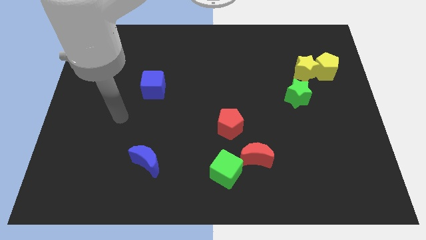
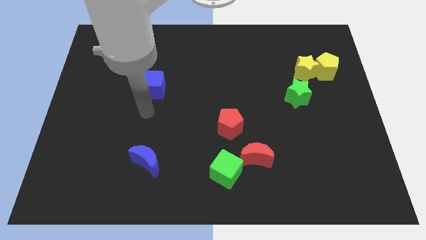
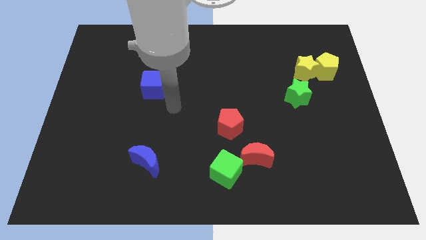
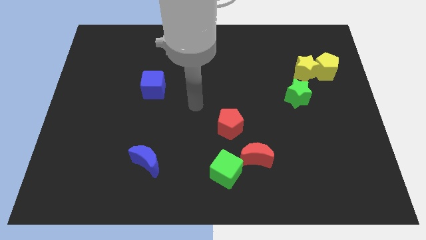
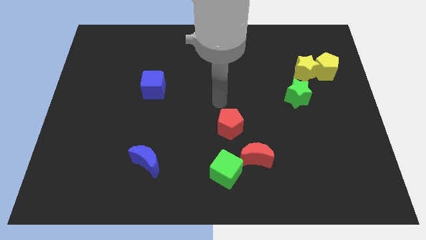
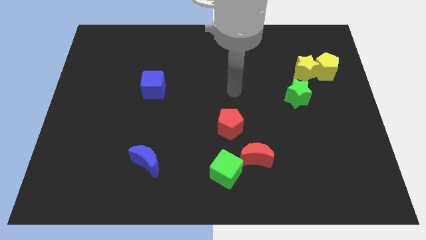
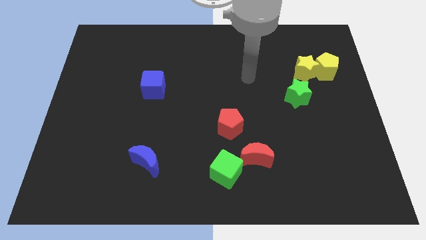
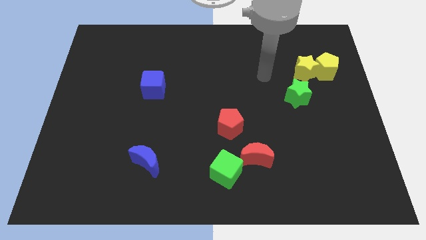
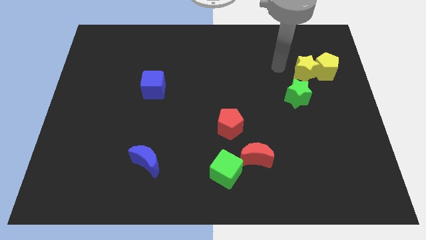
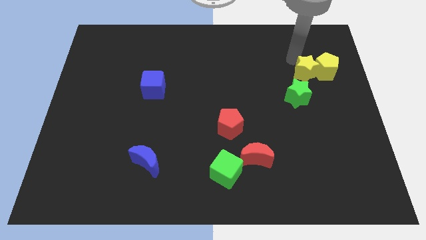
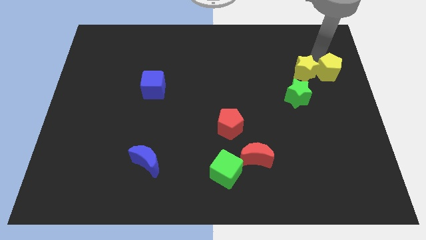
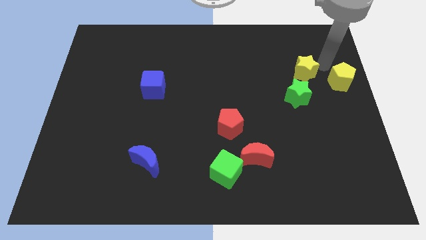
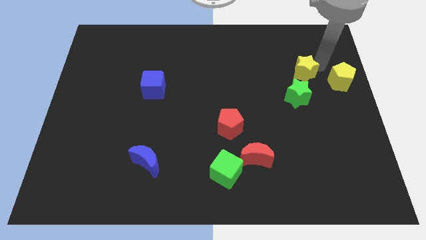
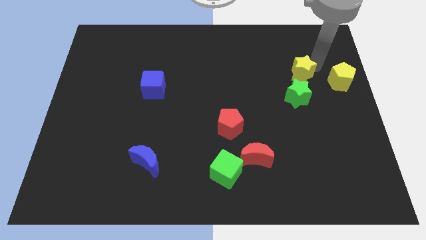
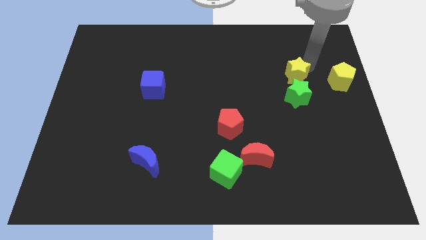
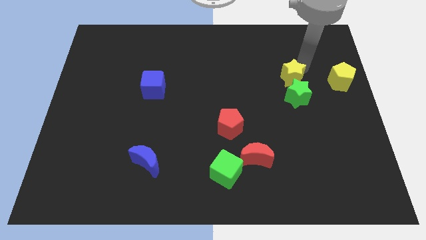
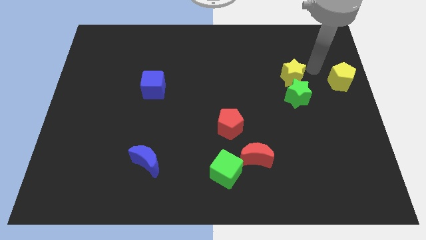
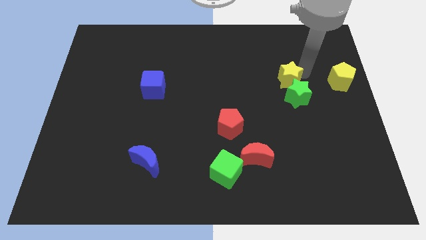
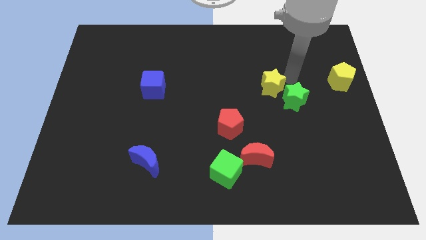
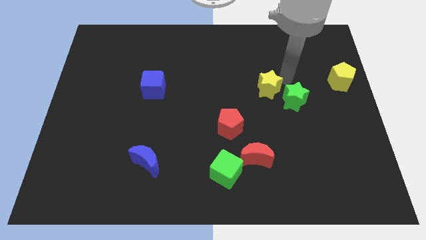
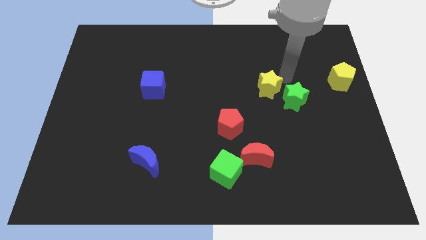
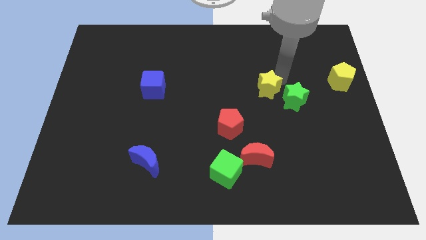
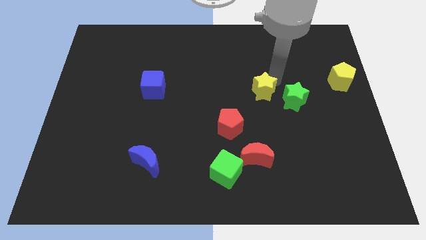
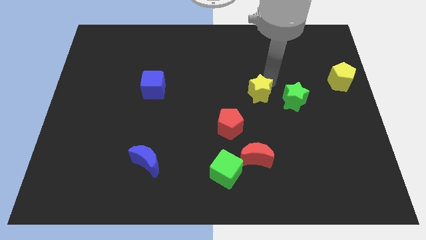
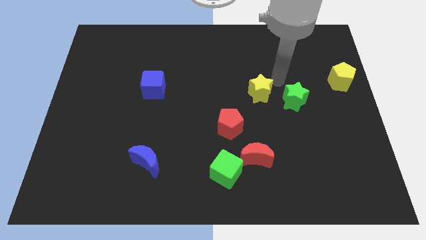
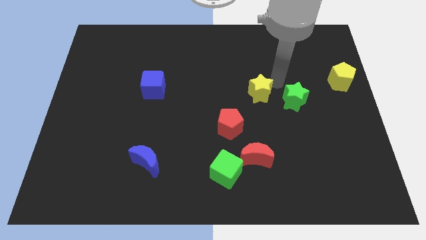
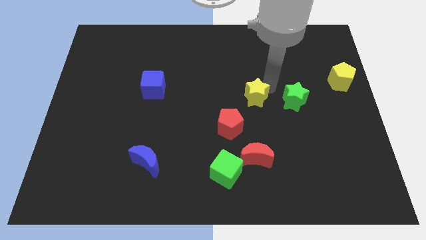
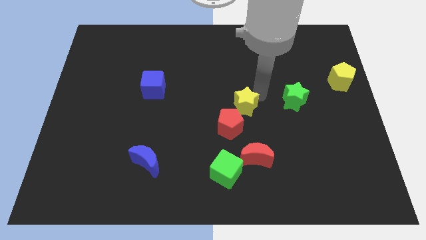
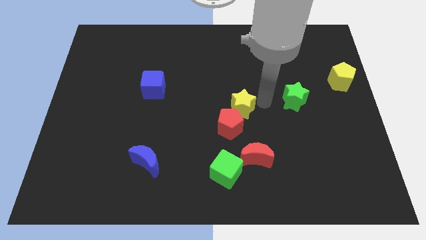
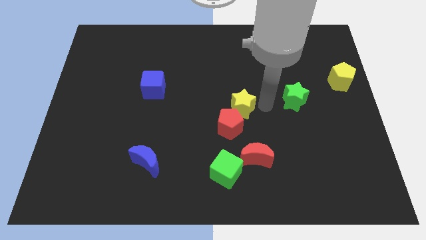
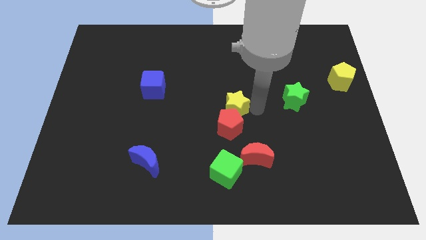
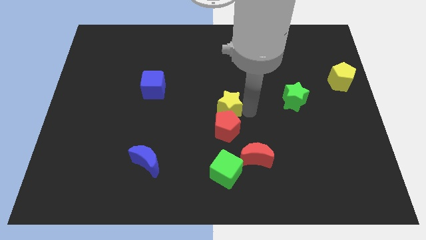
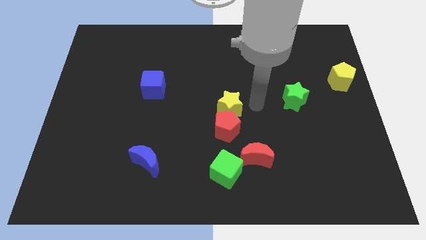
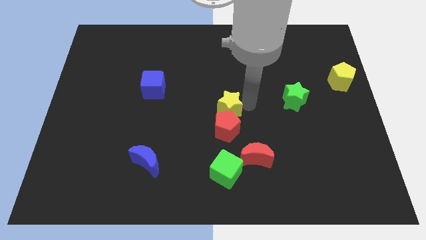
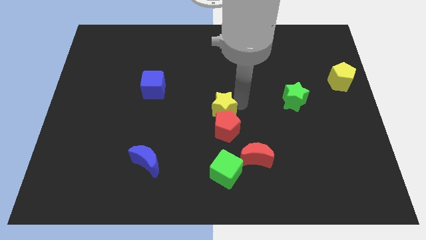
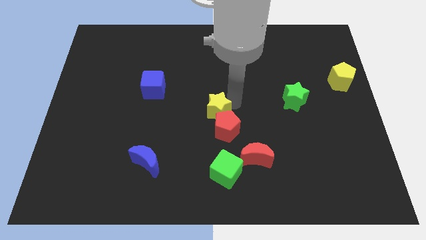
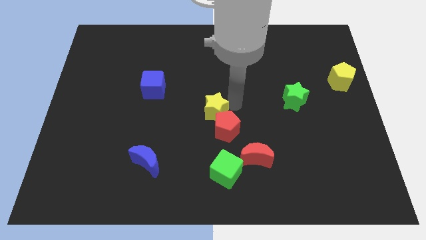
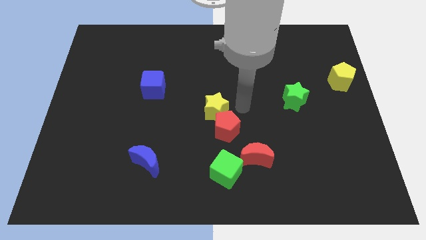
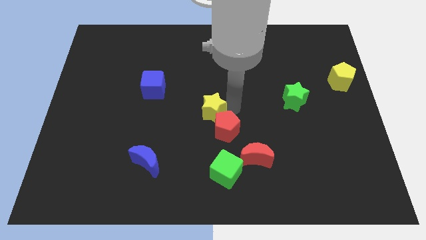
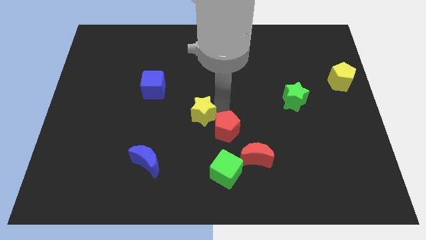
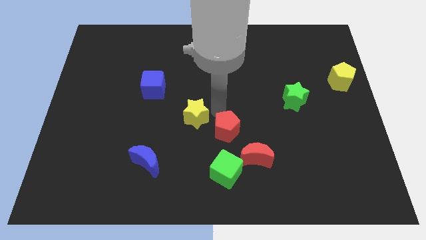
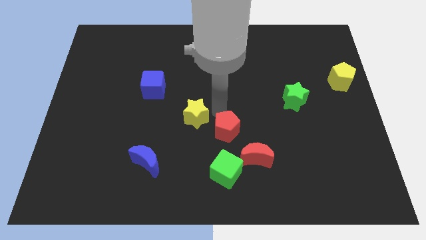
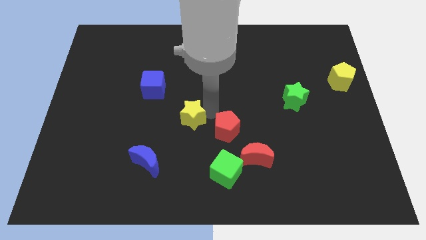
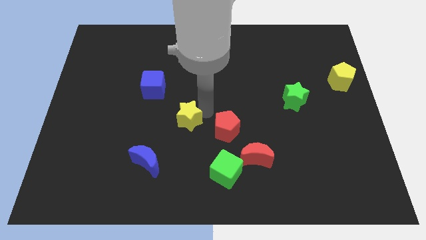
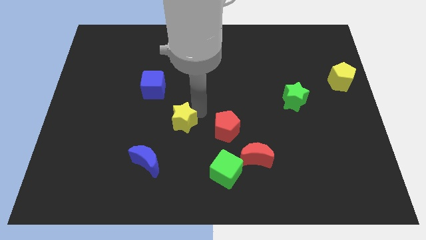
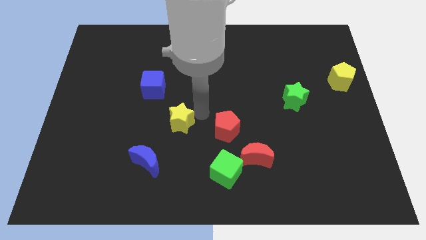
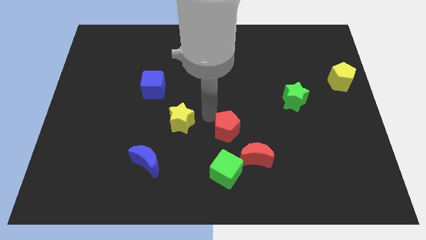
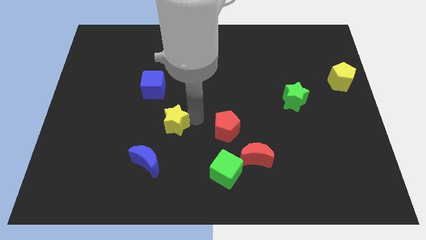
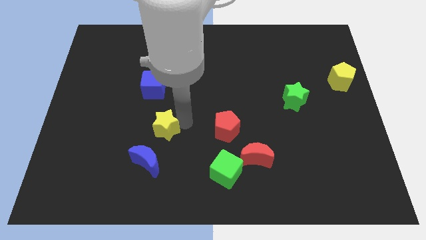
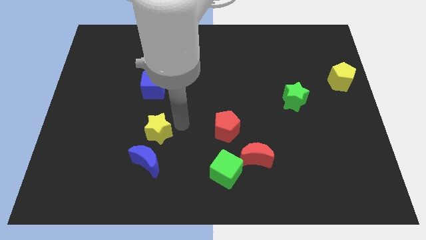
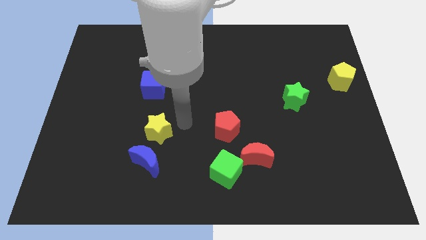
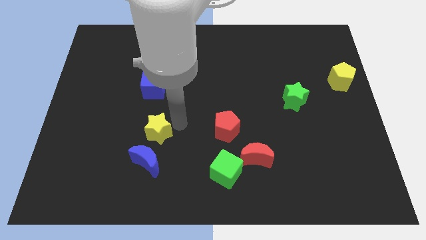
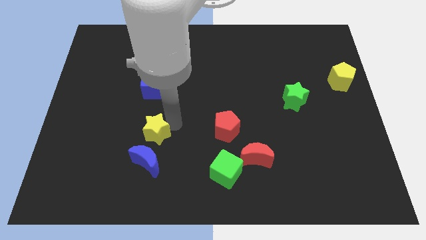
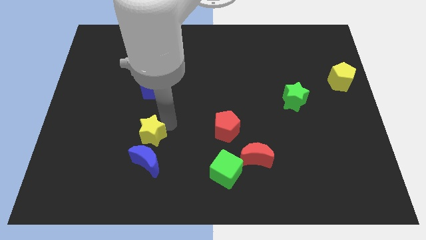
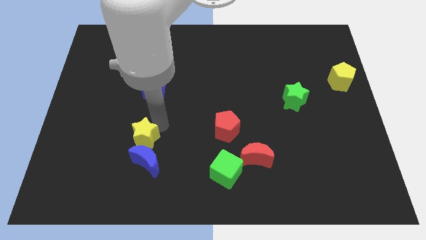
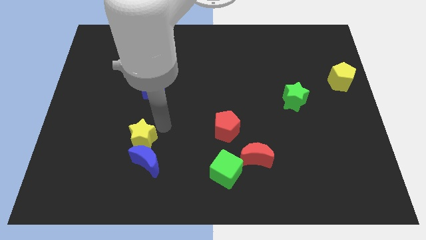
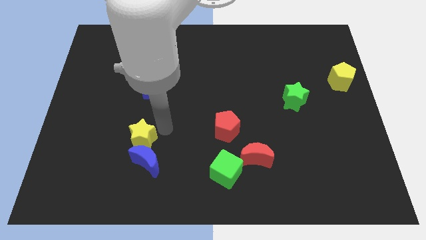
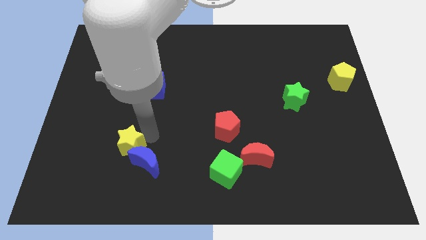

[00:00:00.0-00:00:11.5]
move the yellow star left of the blue moon

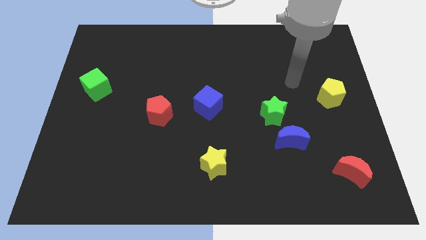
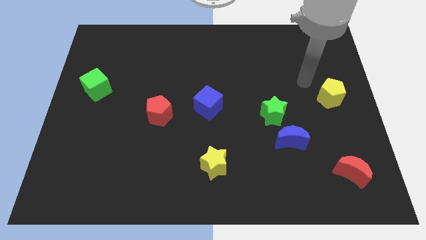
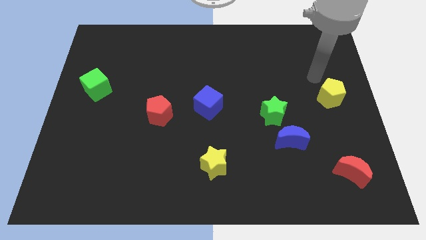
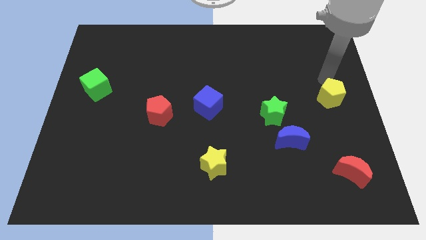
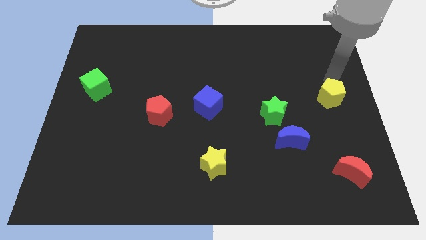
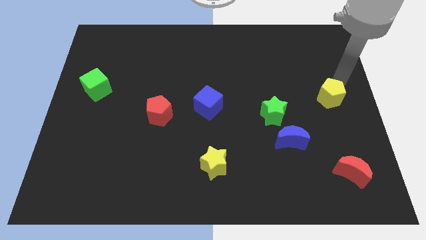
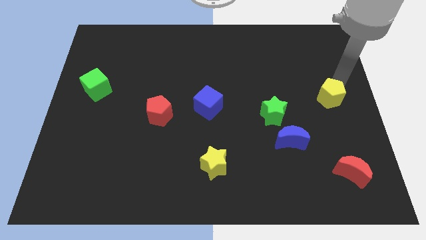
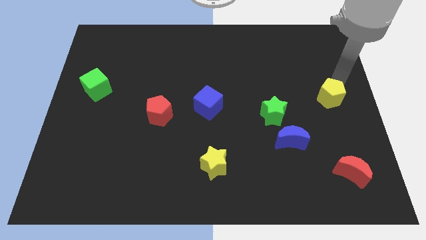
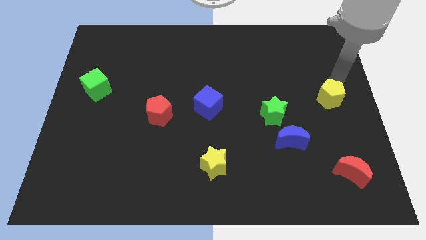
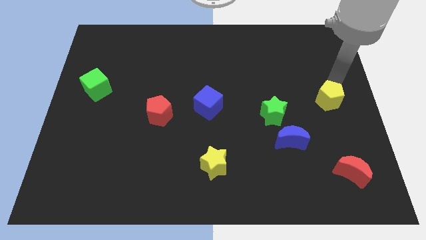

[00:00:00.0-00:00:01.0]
push the yellow pentagon to the right side of the green star
